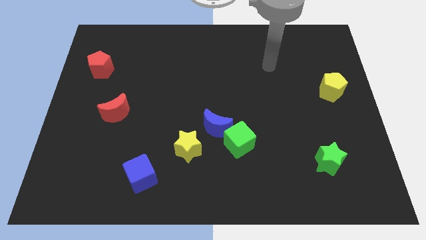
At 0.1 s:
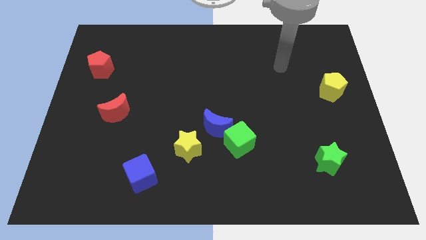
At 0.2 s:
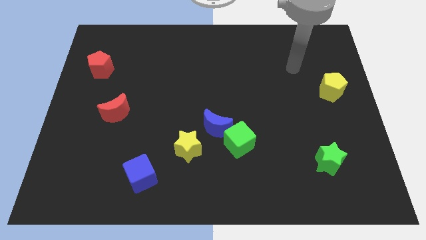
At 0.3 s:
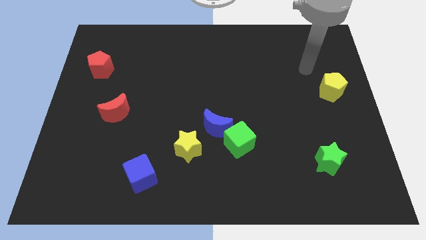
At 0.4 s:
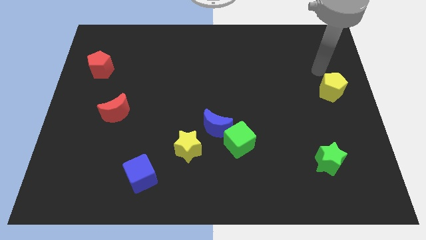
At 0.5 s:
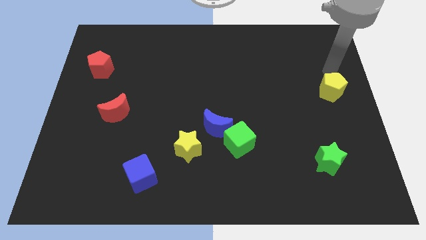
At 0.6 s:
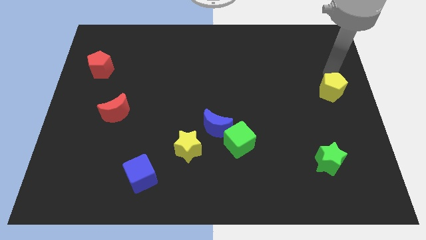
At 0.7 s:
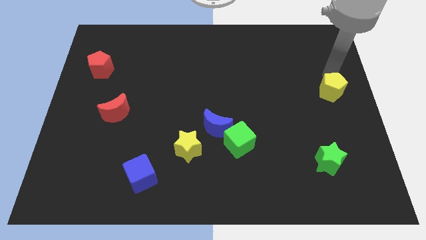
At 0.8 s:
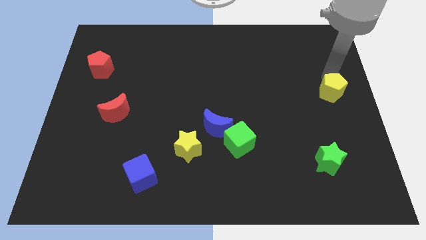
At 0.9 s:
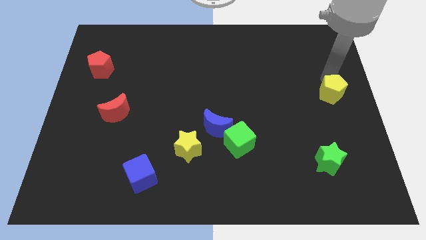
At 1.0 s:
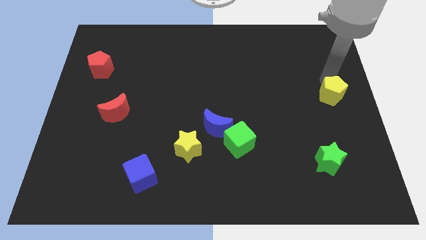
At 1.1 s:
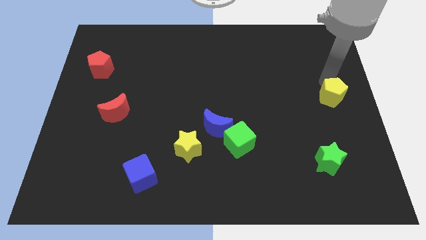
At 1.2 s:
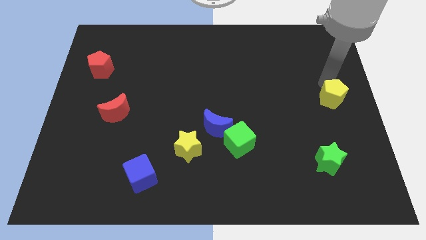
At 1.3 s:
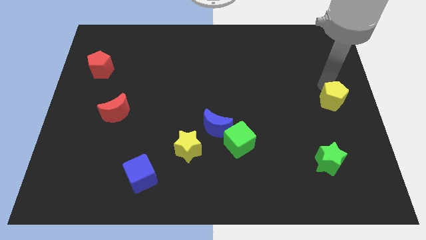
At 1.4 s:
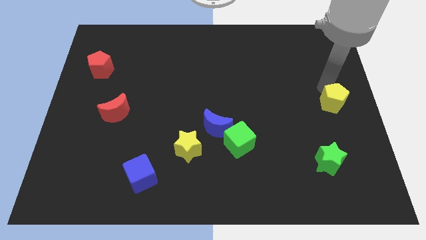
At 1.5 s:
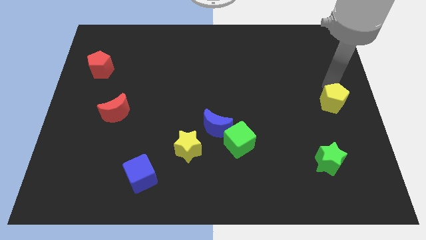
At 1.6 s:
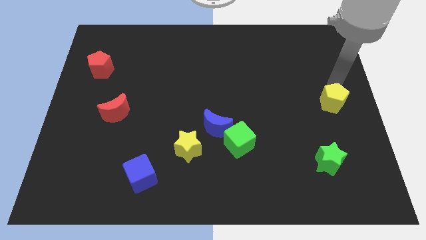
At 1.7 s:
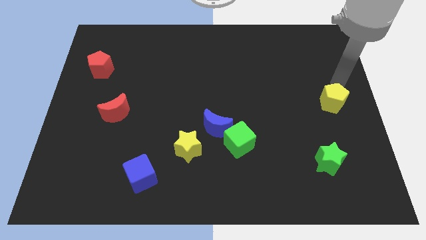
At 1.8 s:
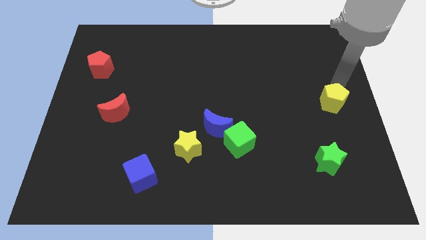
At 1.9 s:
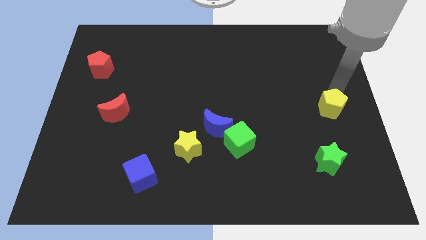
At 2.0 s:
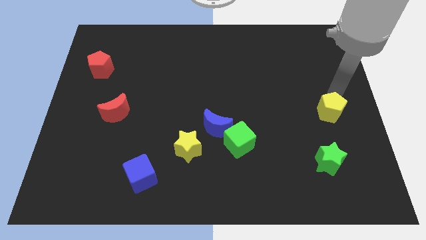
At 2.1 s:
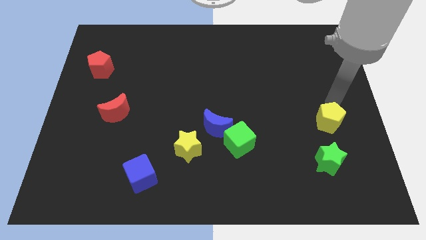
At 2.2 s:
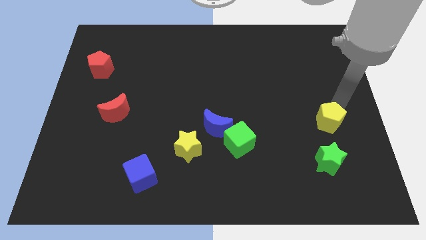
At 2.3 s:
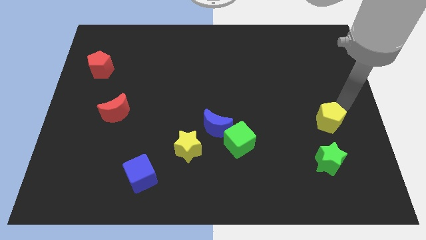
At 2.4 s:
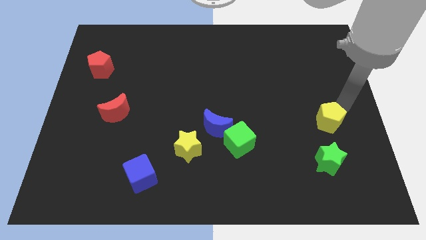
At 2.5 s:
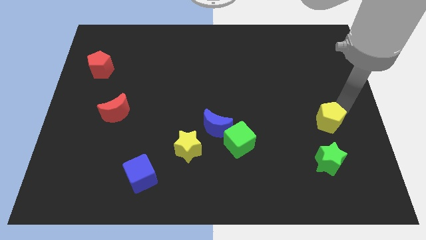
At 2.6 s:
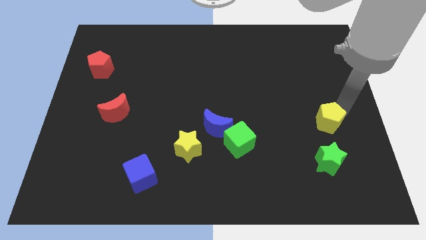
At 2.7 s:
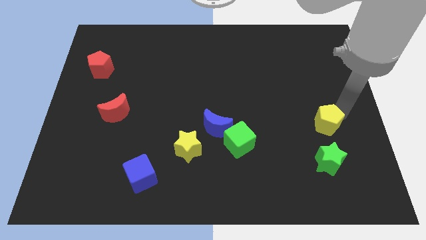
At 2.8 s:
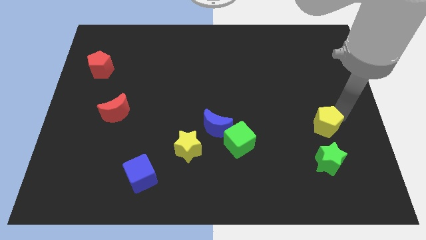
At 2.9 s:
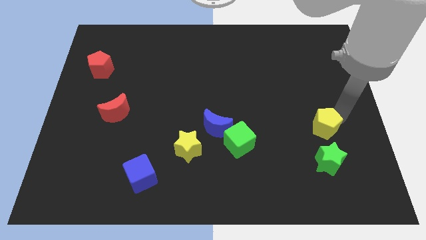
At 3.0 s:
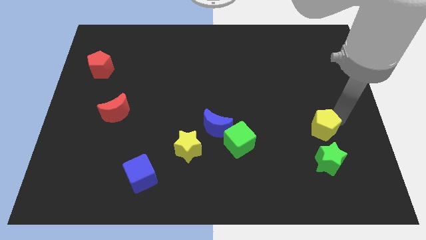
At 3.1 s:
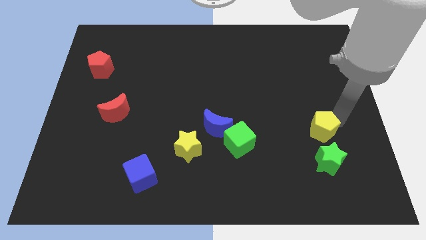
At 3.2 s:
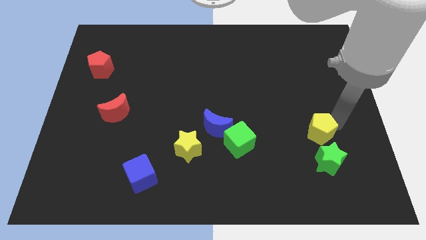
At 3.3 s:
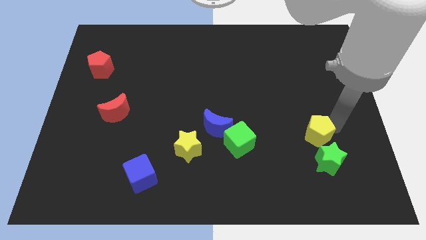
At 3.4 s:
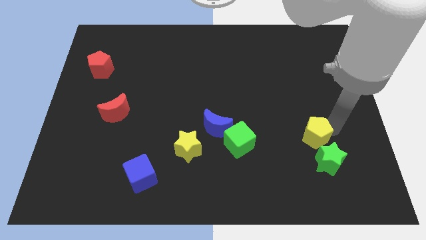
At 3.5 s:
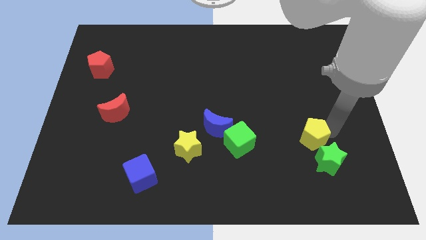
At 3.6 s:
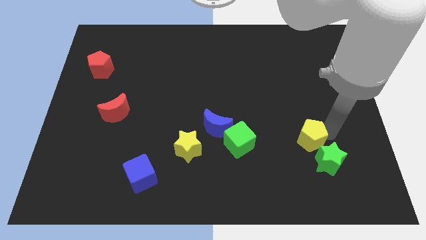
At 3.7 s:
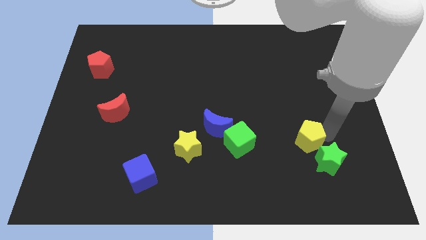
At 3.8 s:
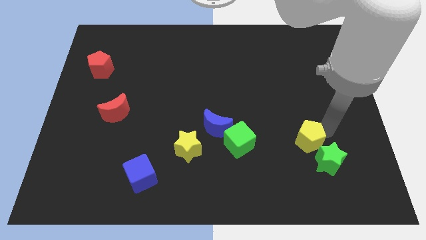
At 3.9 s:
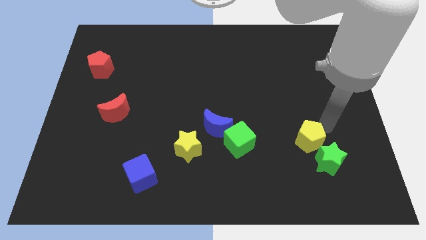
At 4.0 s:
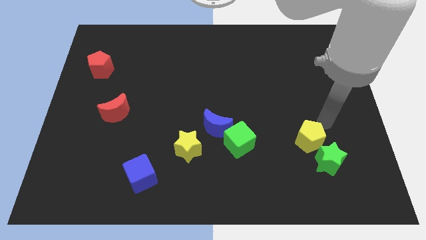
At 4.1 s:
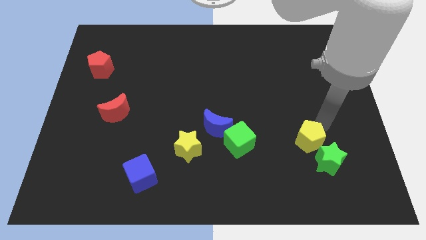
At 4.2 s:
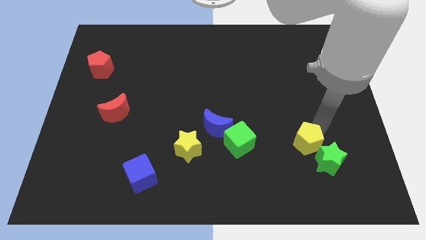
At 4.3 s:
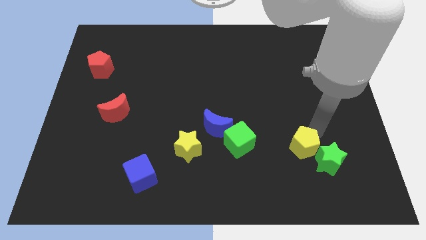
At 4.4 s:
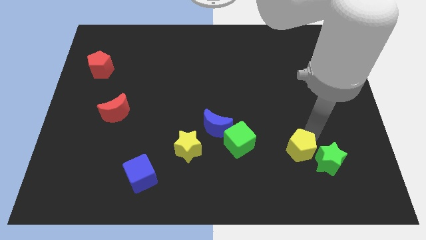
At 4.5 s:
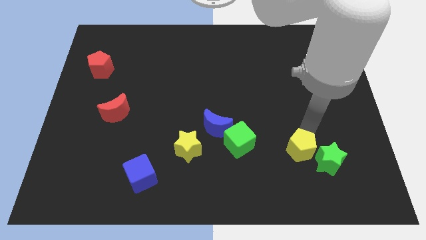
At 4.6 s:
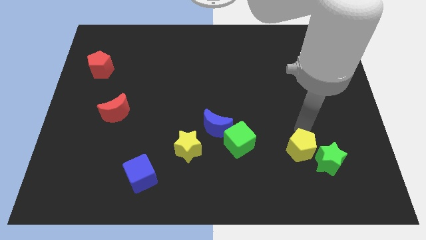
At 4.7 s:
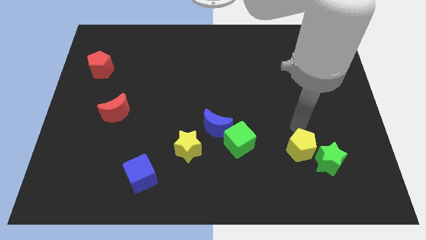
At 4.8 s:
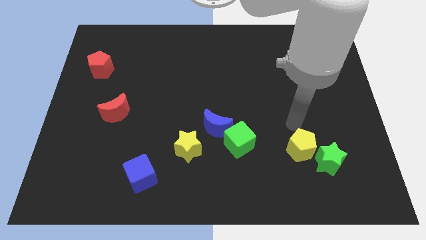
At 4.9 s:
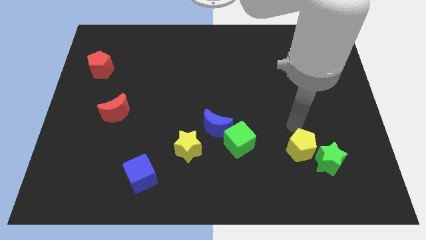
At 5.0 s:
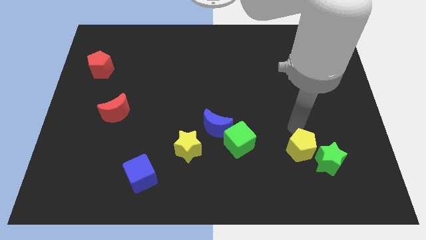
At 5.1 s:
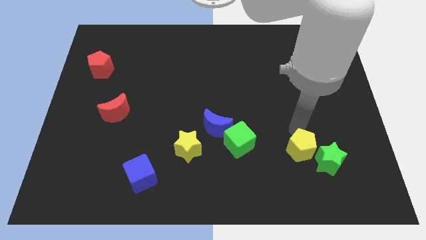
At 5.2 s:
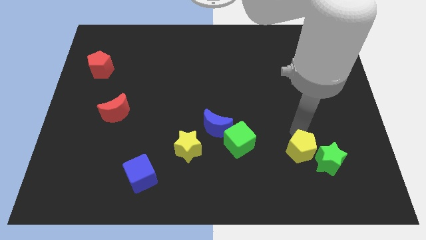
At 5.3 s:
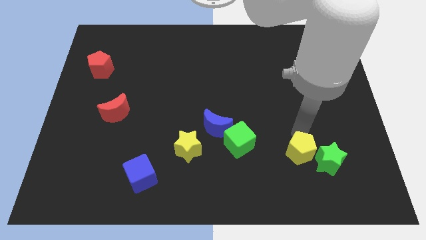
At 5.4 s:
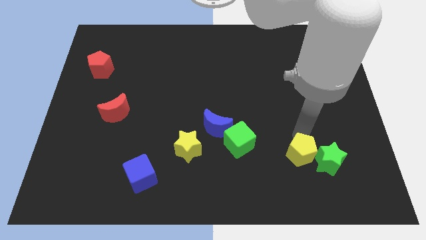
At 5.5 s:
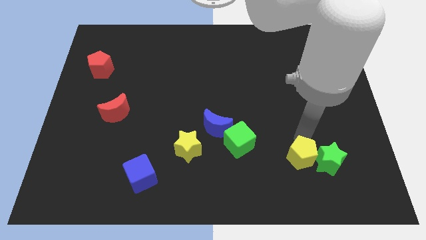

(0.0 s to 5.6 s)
put the yellow pentagon to the bottom left of the green star
